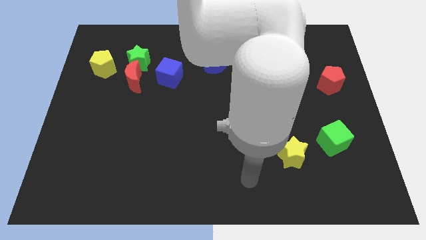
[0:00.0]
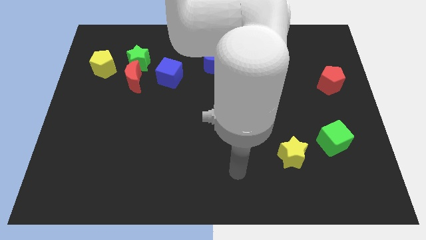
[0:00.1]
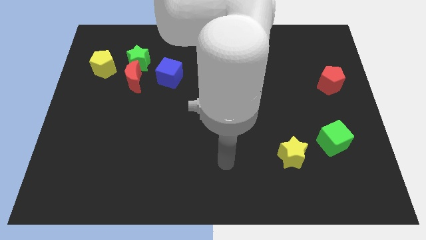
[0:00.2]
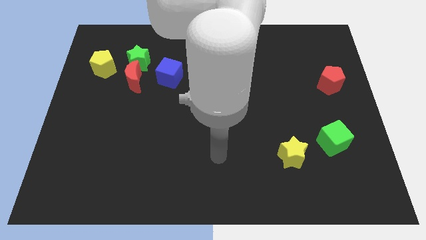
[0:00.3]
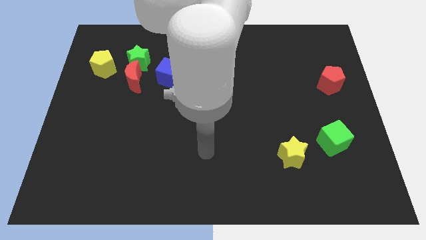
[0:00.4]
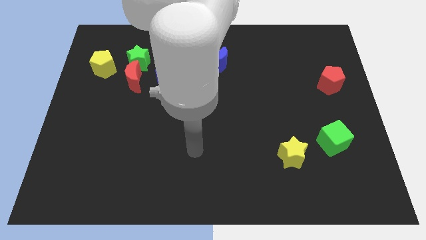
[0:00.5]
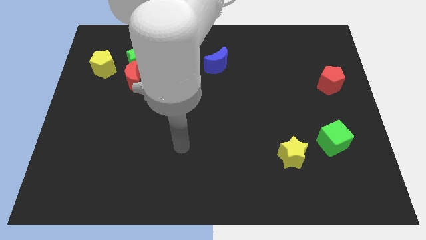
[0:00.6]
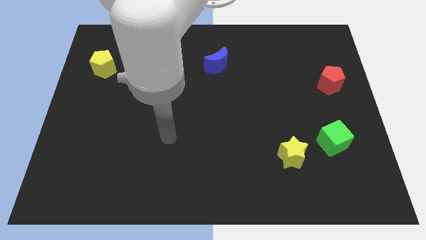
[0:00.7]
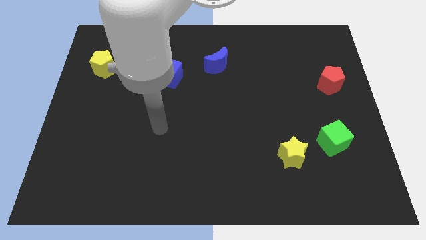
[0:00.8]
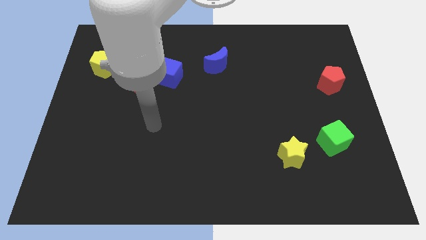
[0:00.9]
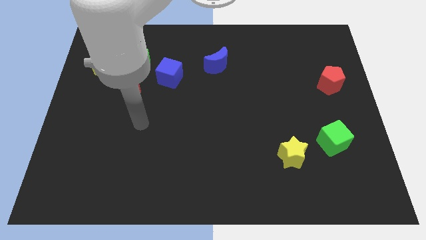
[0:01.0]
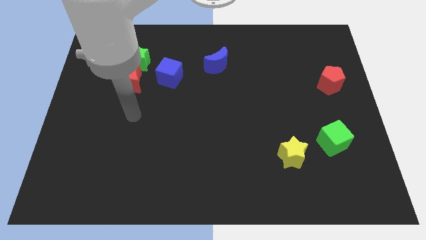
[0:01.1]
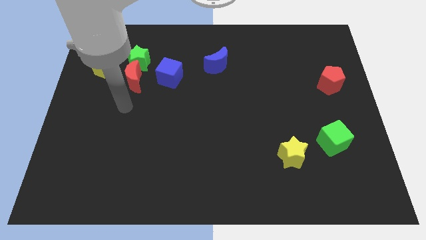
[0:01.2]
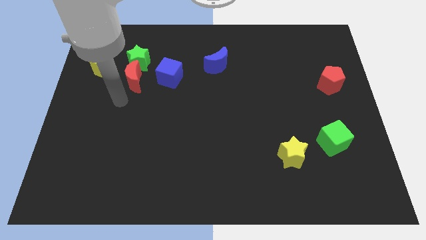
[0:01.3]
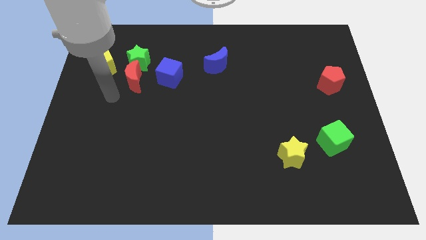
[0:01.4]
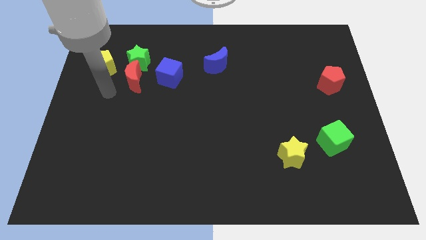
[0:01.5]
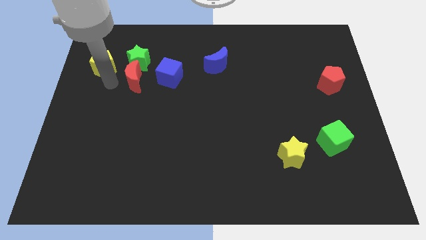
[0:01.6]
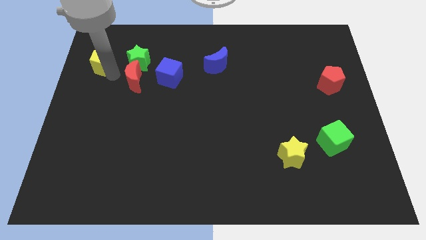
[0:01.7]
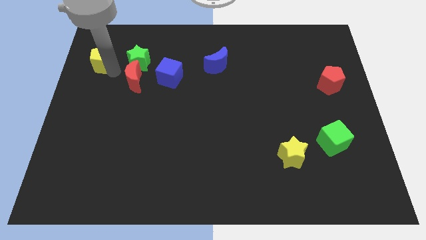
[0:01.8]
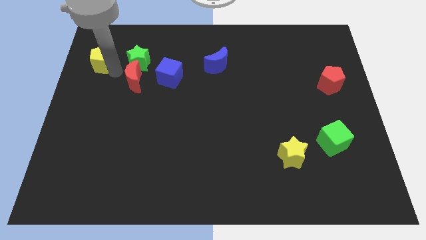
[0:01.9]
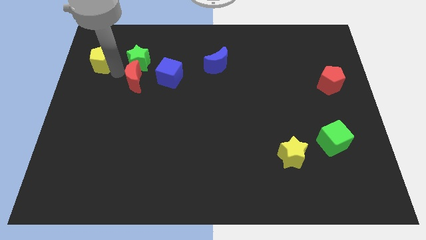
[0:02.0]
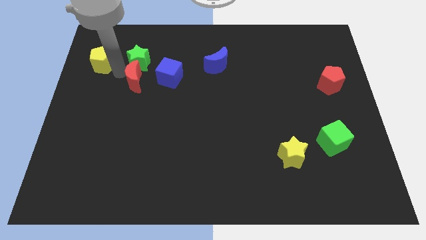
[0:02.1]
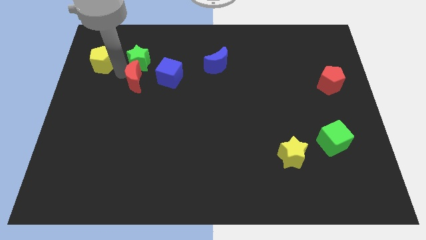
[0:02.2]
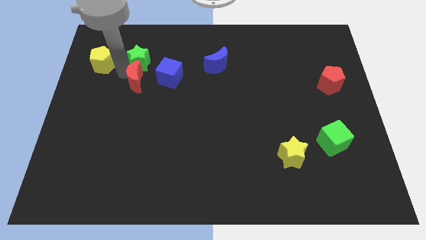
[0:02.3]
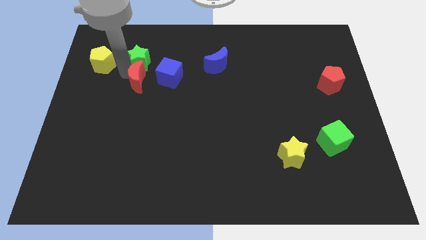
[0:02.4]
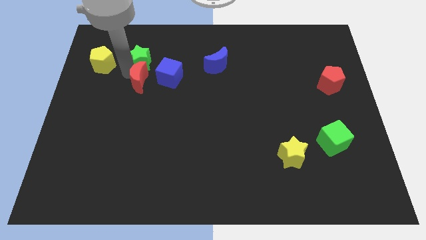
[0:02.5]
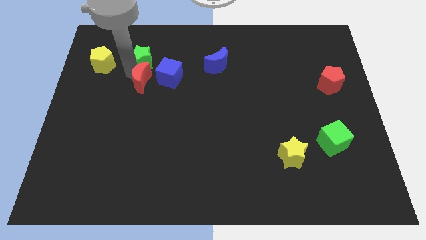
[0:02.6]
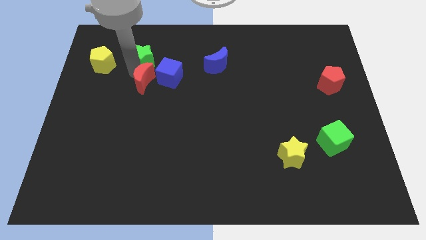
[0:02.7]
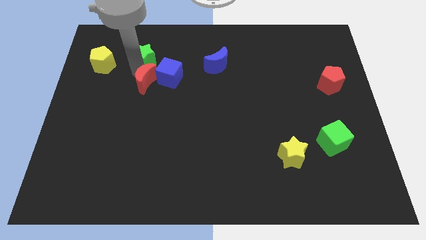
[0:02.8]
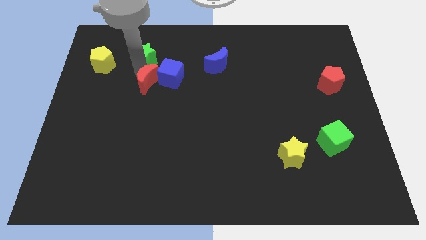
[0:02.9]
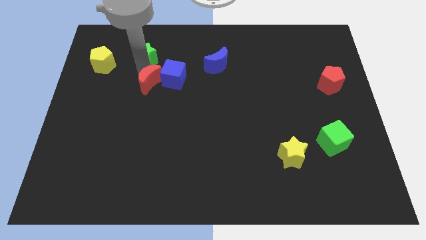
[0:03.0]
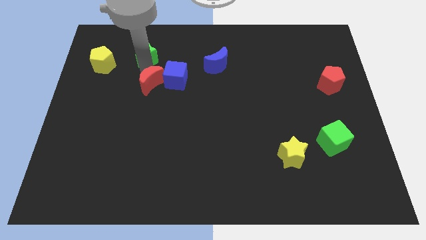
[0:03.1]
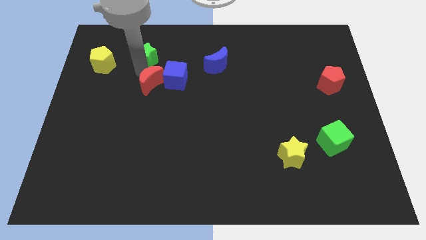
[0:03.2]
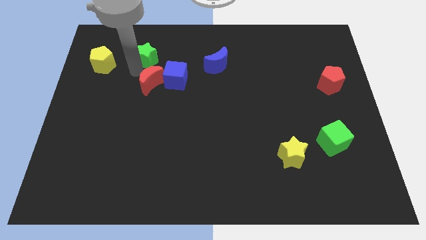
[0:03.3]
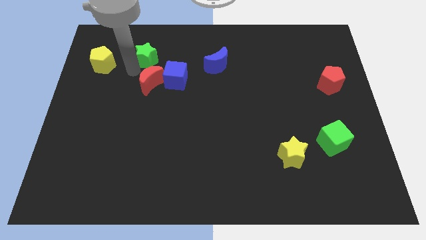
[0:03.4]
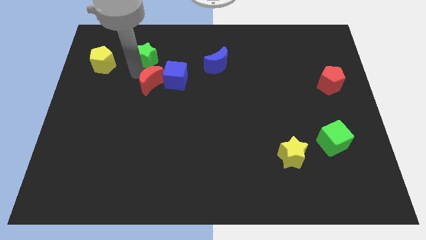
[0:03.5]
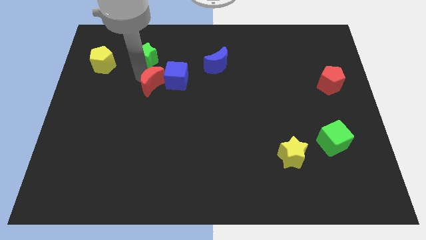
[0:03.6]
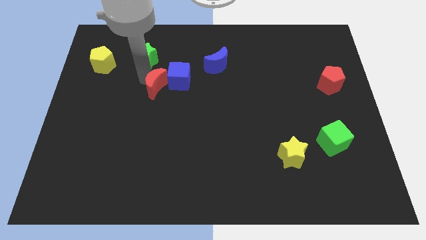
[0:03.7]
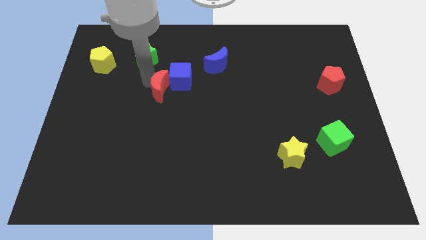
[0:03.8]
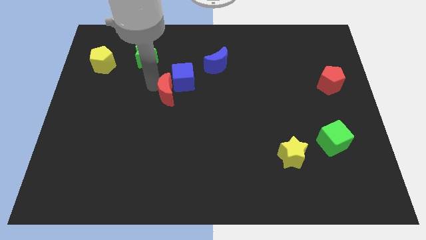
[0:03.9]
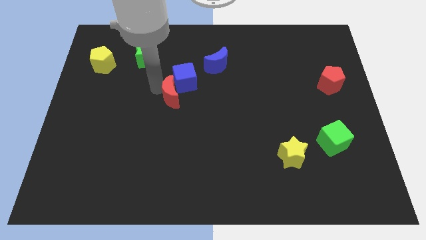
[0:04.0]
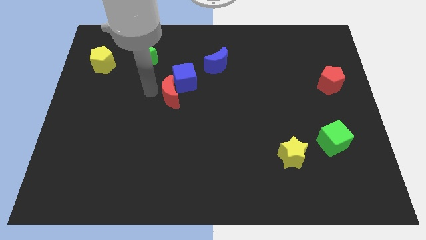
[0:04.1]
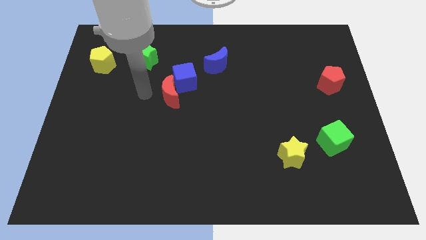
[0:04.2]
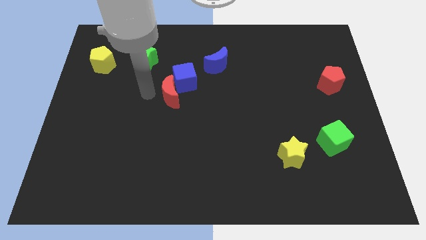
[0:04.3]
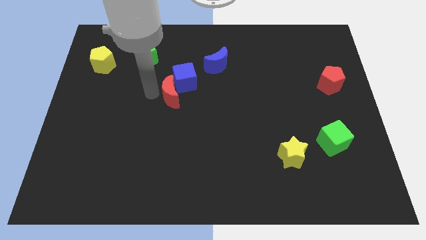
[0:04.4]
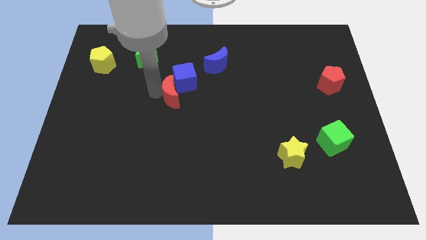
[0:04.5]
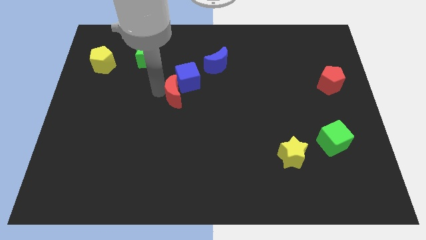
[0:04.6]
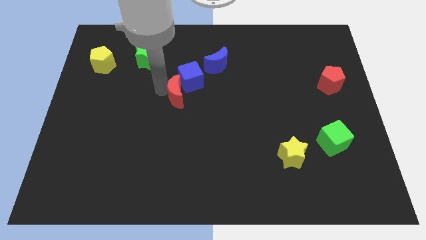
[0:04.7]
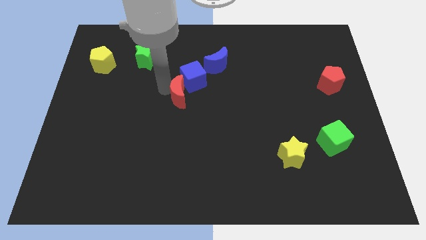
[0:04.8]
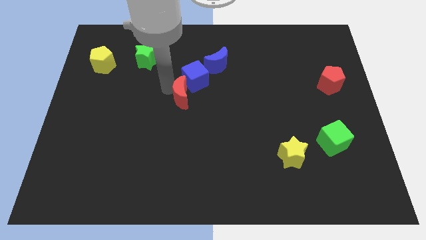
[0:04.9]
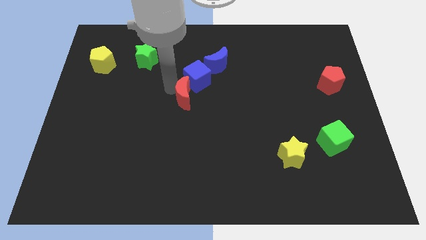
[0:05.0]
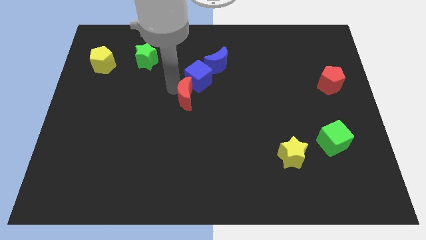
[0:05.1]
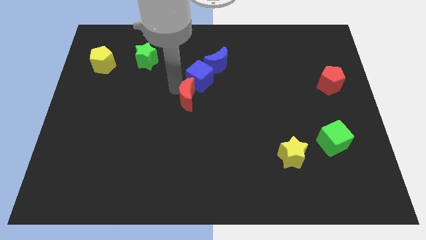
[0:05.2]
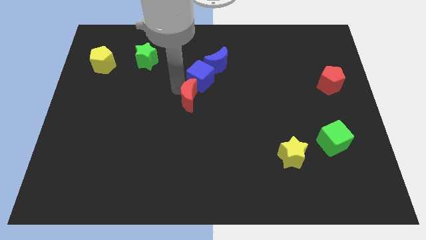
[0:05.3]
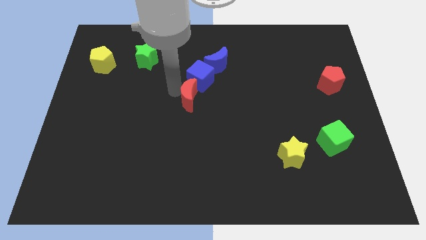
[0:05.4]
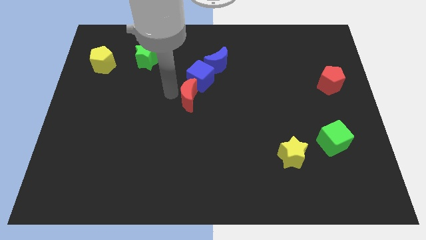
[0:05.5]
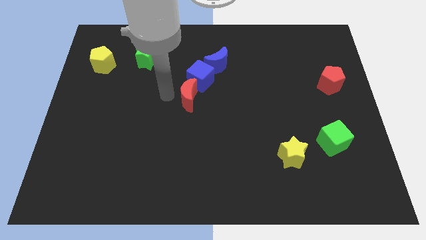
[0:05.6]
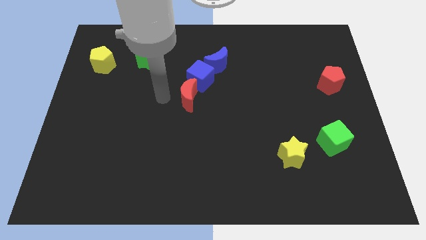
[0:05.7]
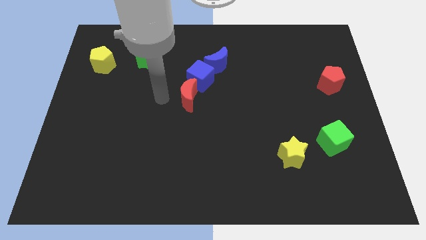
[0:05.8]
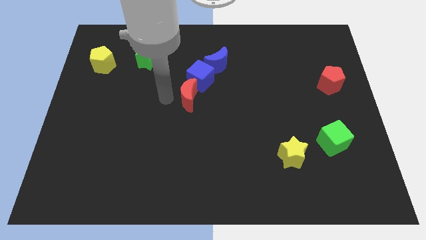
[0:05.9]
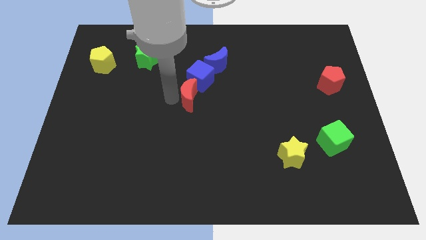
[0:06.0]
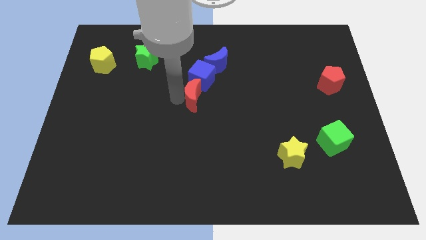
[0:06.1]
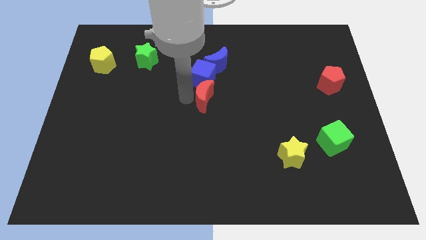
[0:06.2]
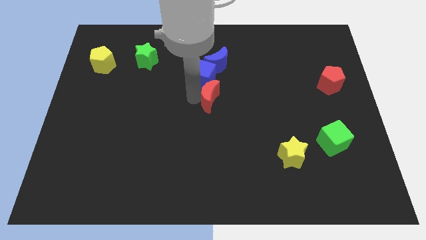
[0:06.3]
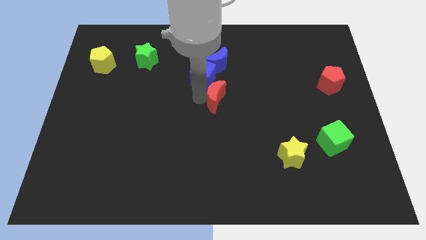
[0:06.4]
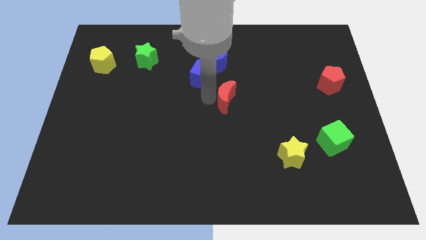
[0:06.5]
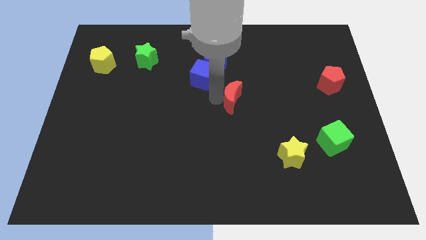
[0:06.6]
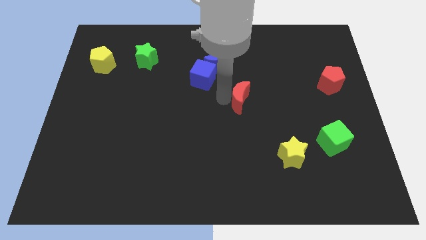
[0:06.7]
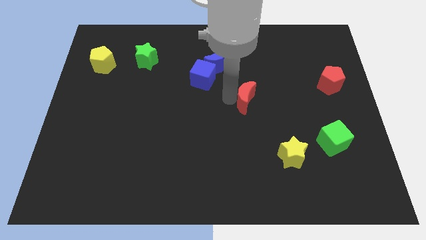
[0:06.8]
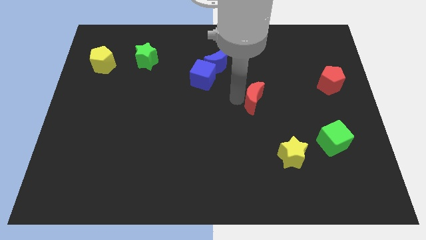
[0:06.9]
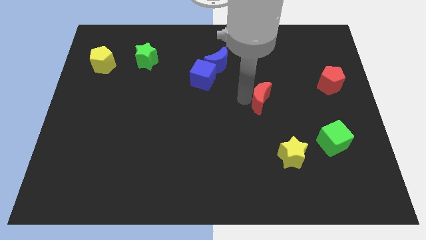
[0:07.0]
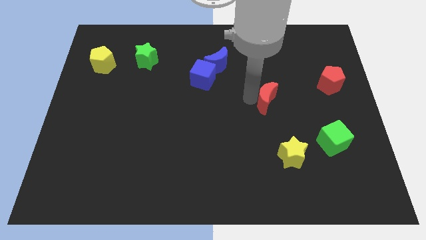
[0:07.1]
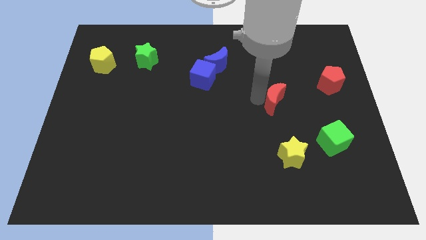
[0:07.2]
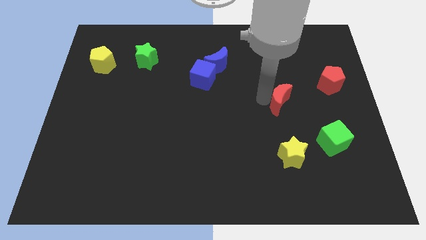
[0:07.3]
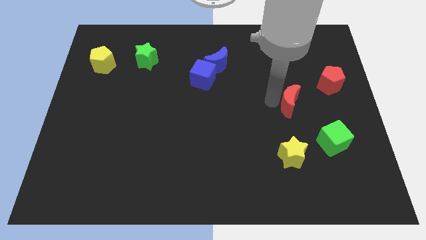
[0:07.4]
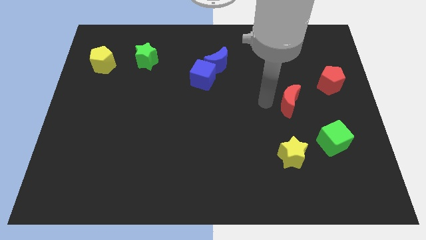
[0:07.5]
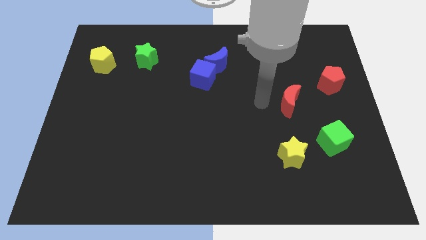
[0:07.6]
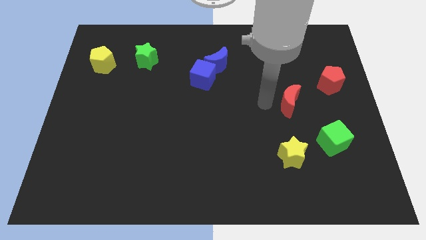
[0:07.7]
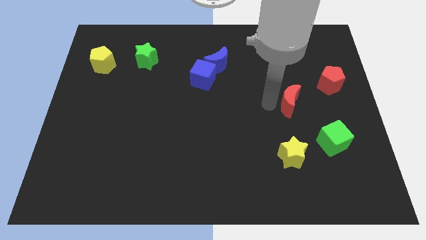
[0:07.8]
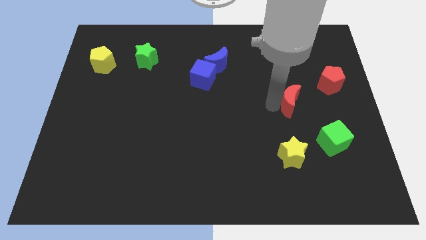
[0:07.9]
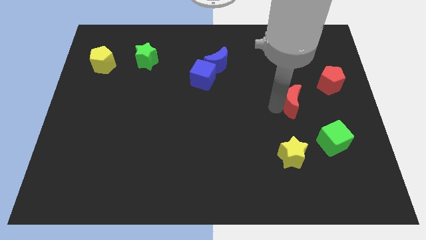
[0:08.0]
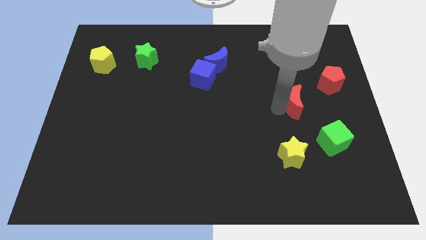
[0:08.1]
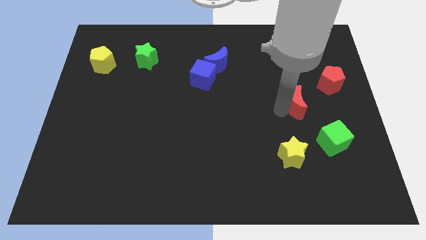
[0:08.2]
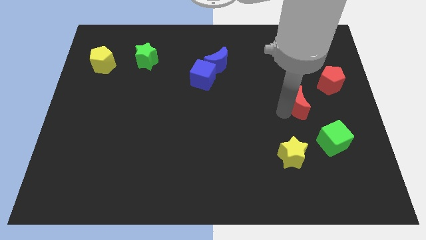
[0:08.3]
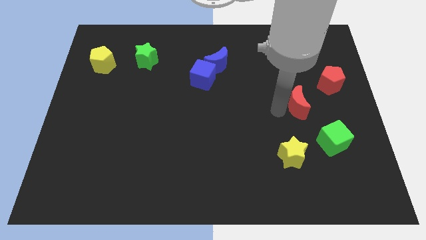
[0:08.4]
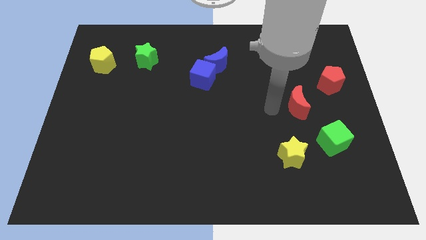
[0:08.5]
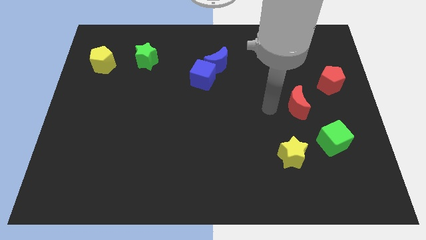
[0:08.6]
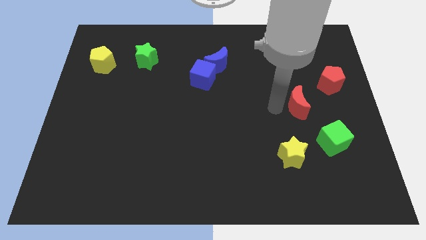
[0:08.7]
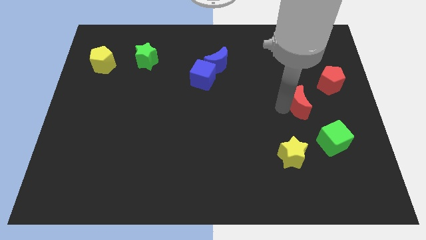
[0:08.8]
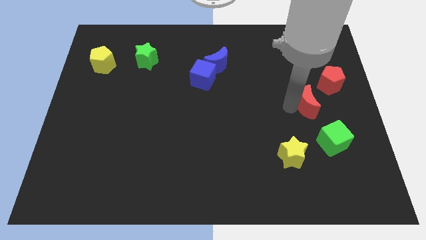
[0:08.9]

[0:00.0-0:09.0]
push the red moon above the green cube
